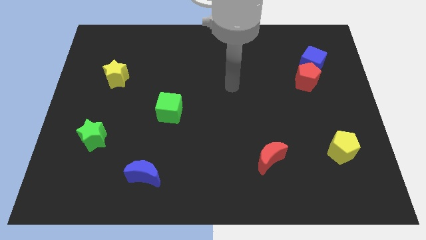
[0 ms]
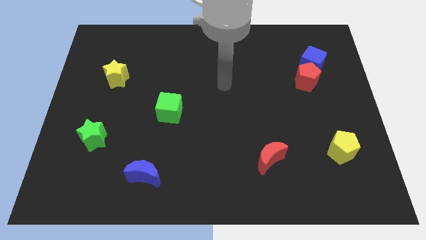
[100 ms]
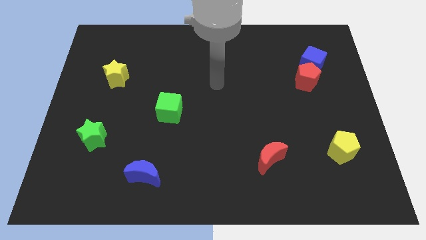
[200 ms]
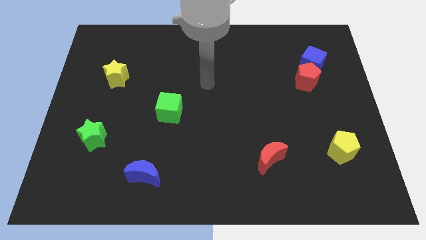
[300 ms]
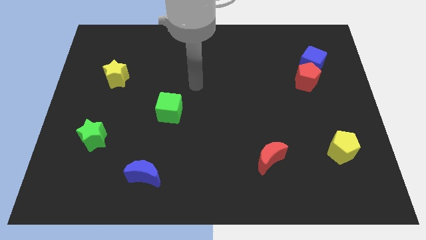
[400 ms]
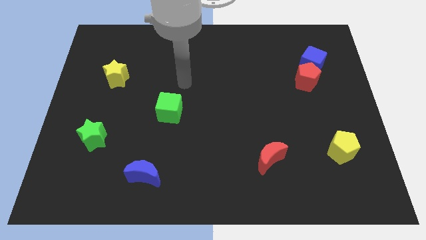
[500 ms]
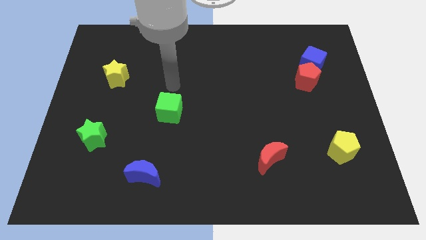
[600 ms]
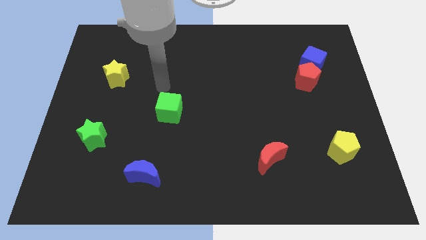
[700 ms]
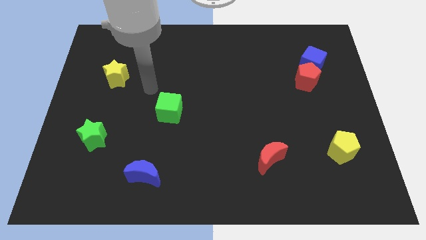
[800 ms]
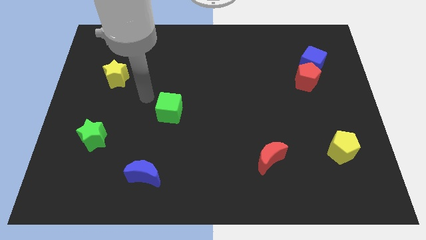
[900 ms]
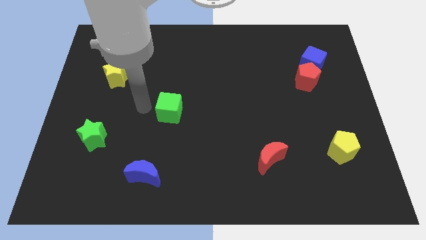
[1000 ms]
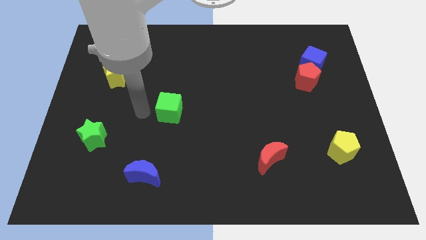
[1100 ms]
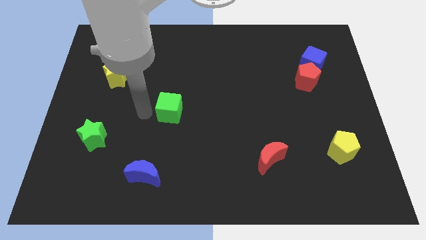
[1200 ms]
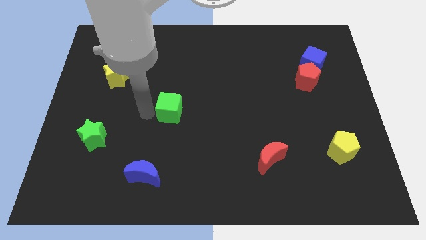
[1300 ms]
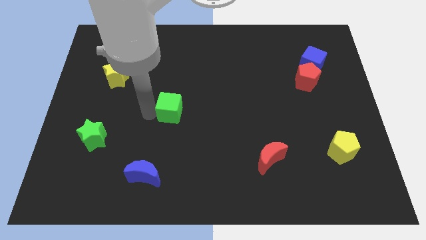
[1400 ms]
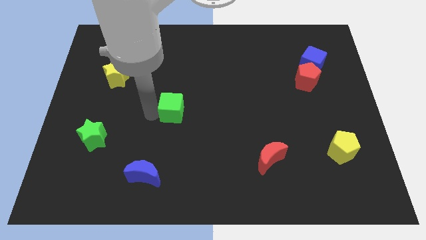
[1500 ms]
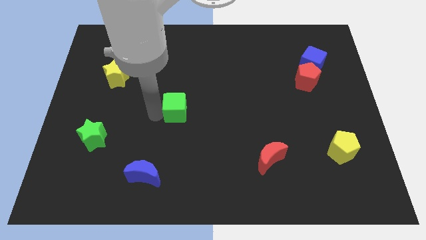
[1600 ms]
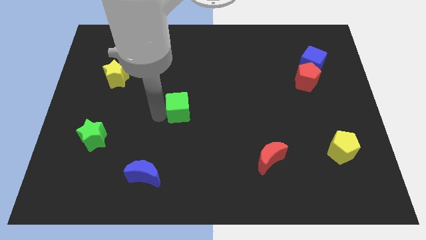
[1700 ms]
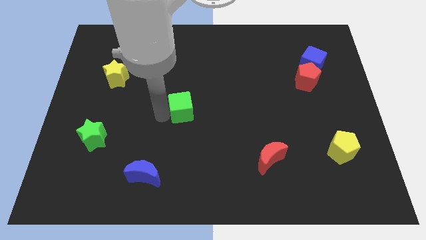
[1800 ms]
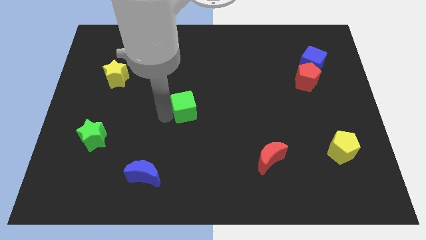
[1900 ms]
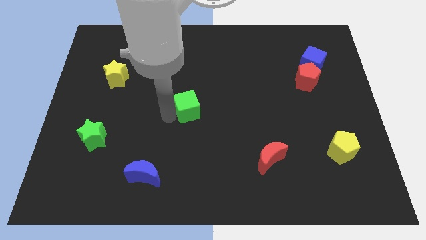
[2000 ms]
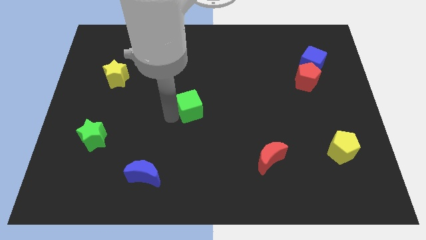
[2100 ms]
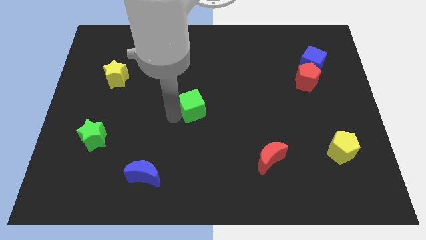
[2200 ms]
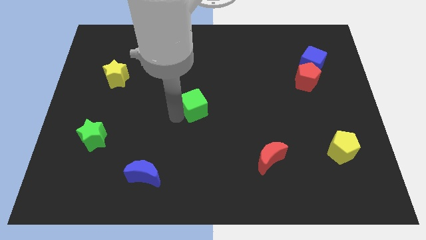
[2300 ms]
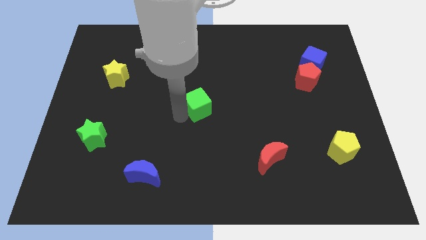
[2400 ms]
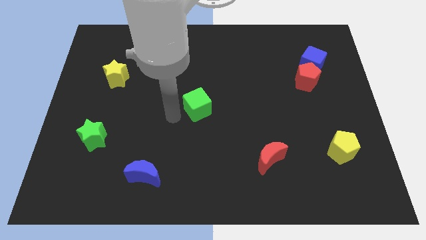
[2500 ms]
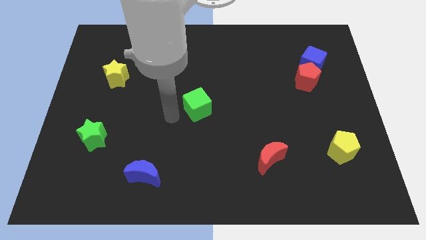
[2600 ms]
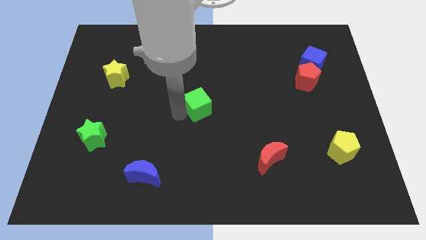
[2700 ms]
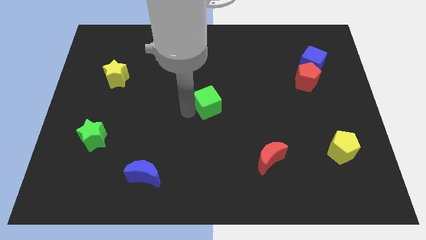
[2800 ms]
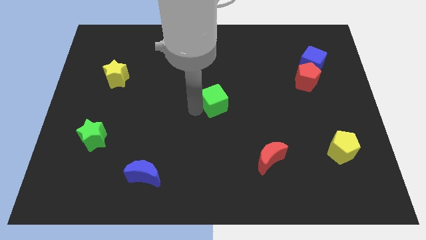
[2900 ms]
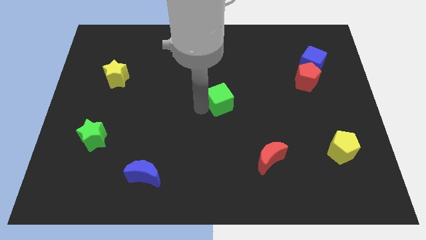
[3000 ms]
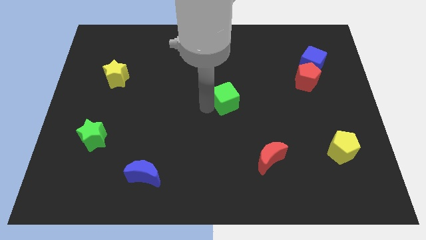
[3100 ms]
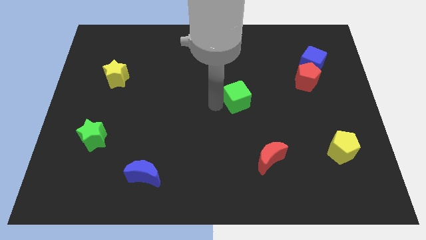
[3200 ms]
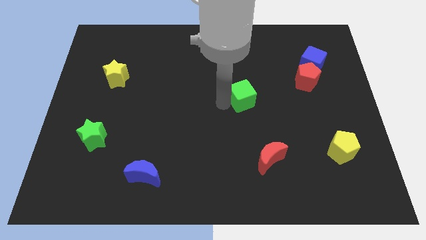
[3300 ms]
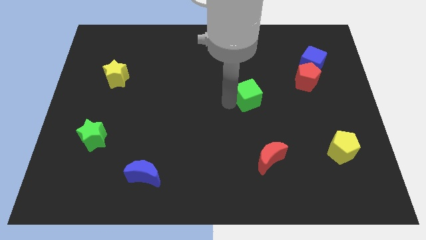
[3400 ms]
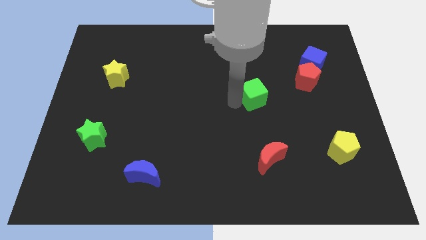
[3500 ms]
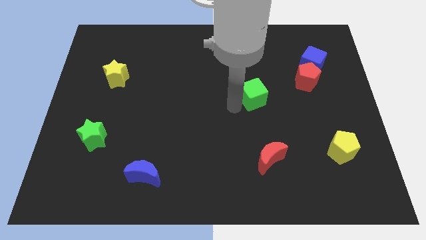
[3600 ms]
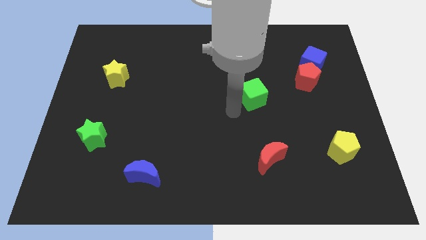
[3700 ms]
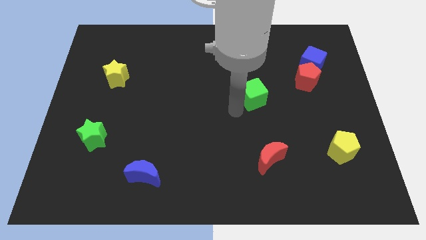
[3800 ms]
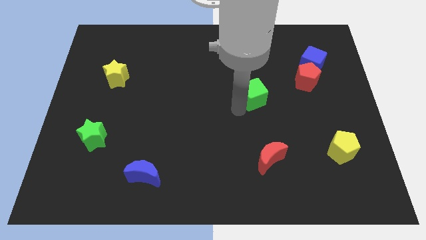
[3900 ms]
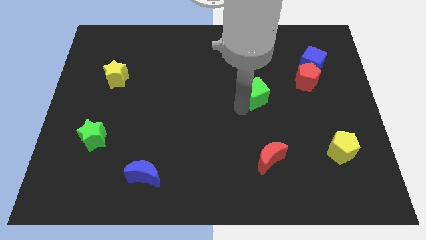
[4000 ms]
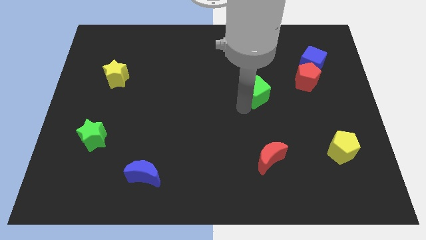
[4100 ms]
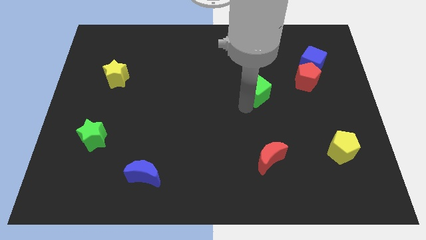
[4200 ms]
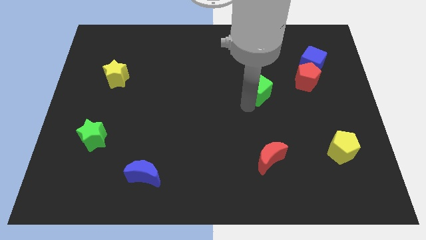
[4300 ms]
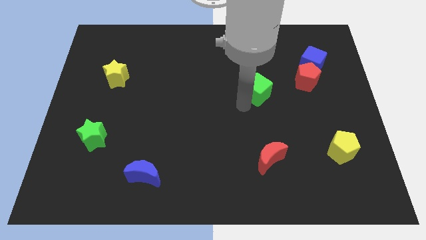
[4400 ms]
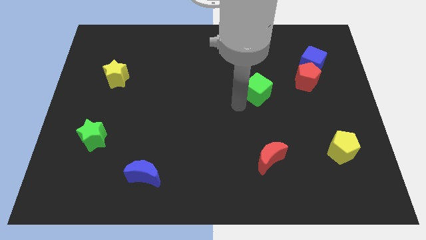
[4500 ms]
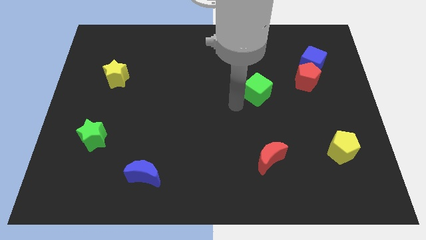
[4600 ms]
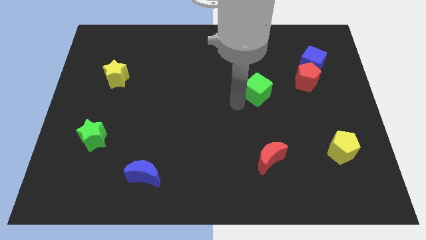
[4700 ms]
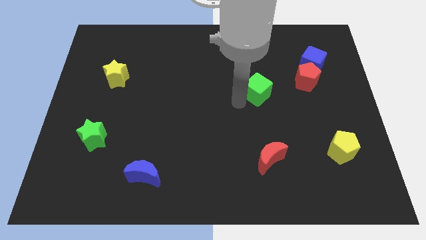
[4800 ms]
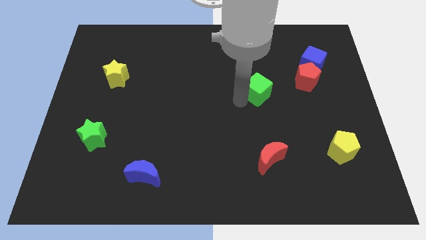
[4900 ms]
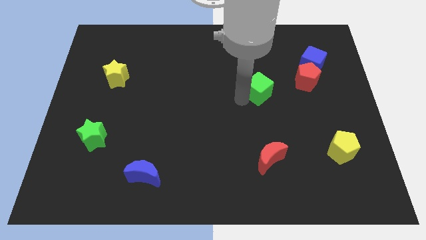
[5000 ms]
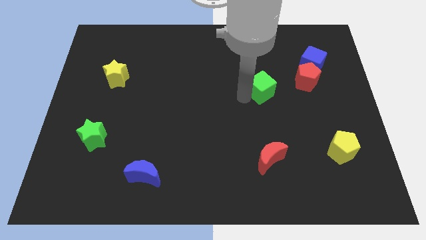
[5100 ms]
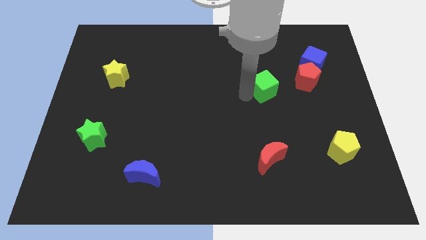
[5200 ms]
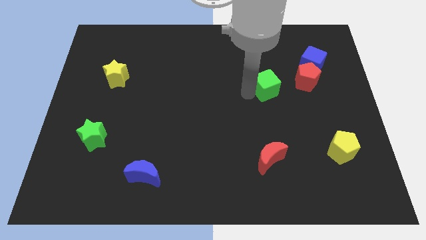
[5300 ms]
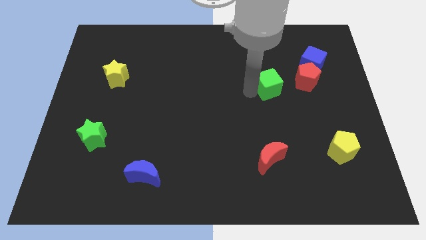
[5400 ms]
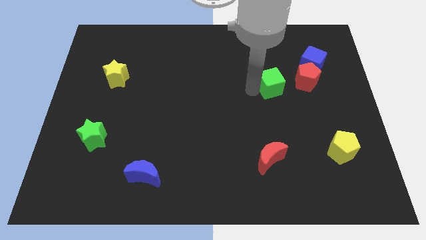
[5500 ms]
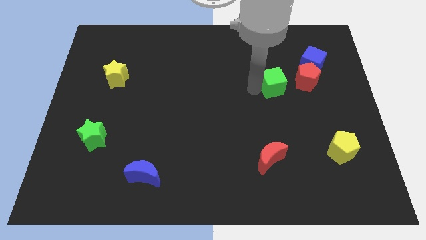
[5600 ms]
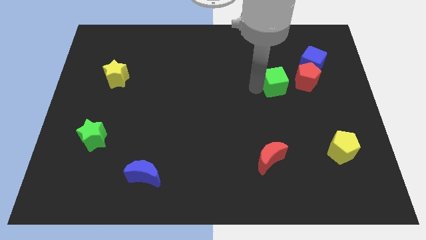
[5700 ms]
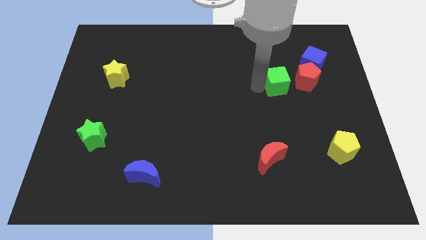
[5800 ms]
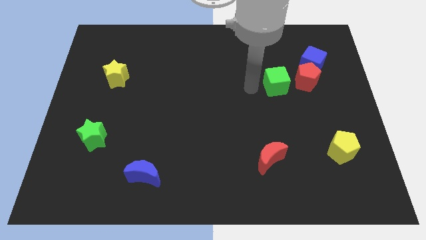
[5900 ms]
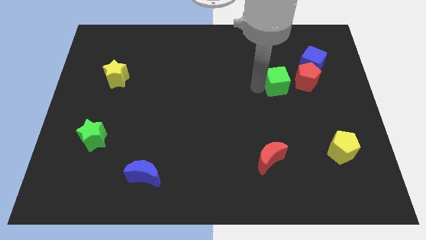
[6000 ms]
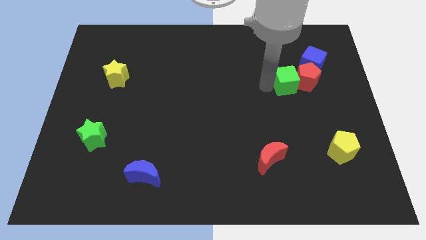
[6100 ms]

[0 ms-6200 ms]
put the green cube close to the red pentagon

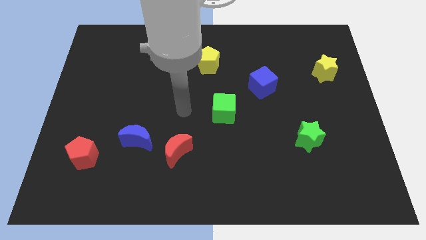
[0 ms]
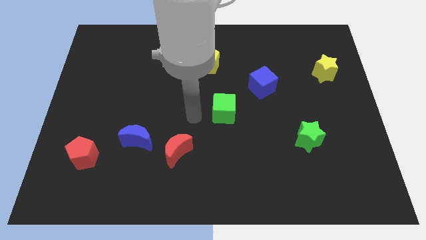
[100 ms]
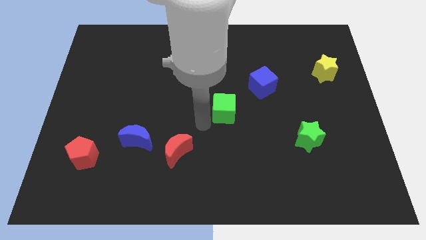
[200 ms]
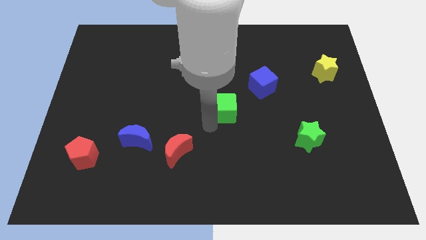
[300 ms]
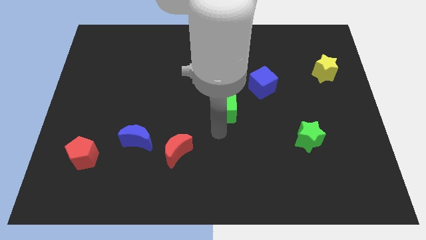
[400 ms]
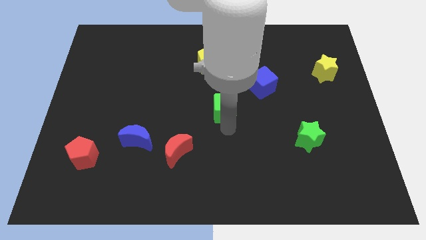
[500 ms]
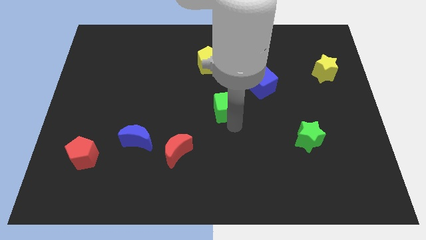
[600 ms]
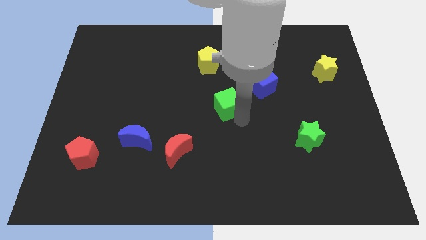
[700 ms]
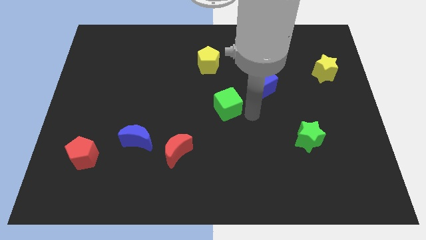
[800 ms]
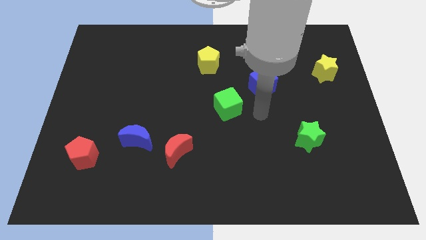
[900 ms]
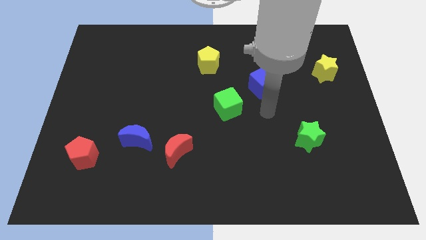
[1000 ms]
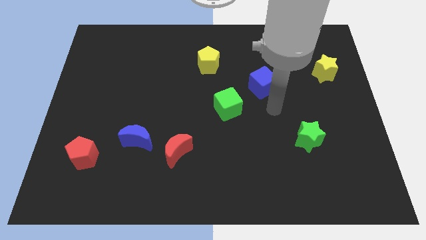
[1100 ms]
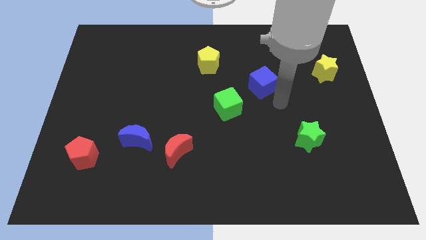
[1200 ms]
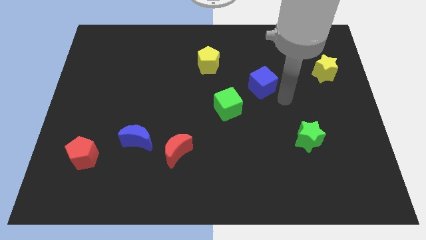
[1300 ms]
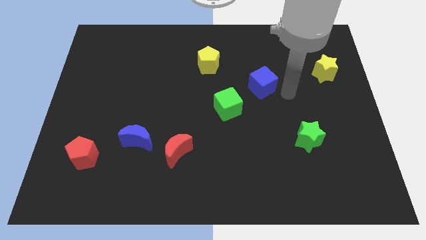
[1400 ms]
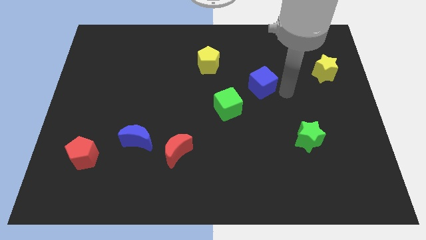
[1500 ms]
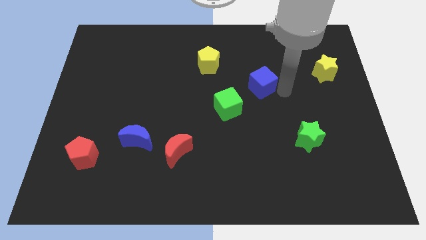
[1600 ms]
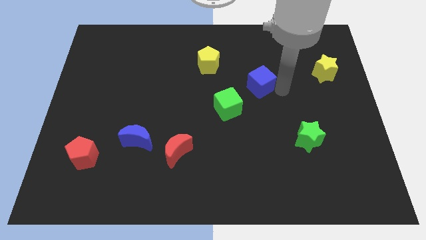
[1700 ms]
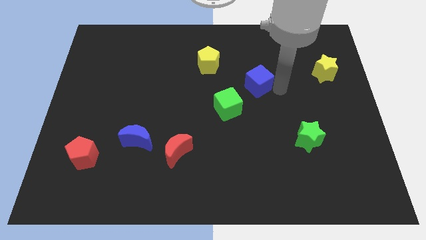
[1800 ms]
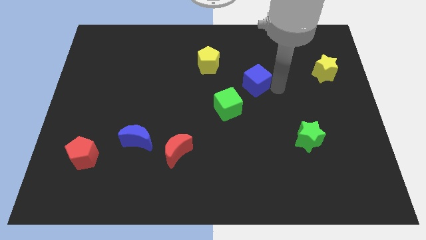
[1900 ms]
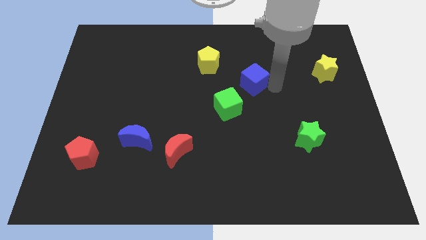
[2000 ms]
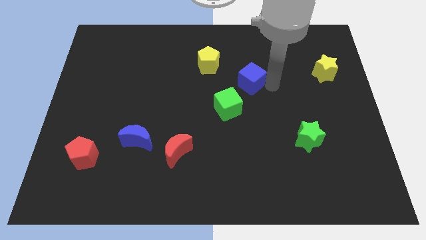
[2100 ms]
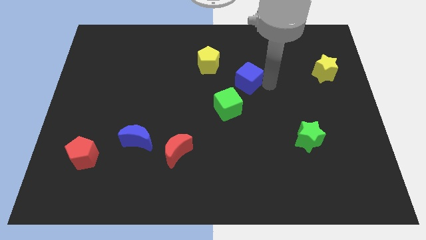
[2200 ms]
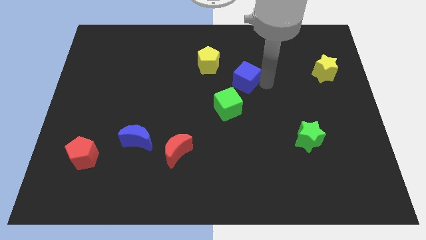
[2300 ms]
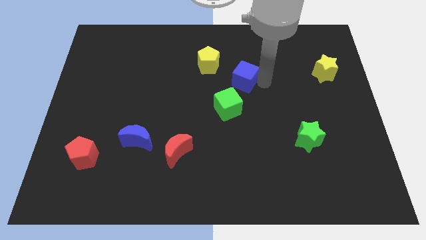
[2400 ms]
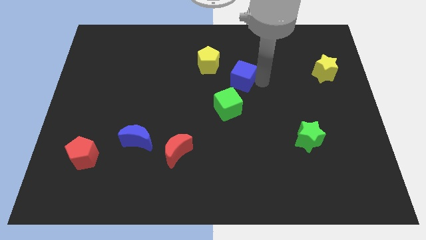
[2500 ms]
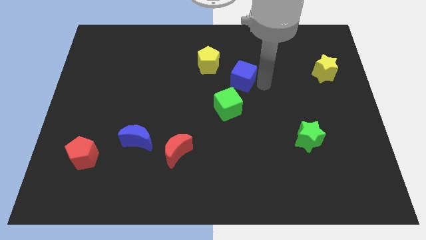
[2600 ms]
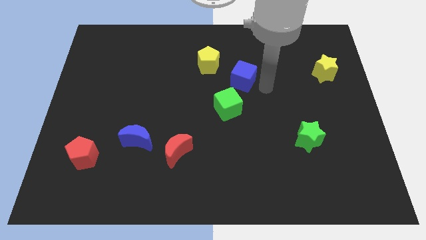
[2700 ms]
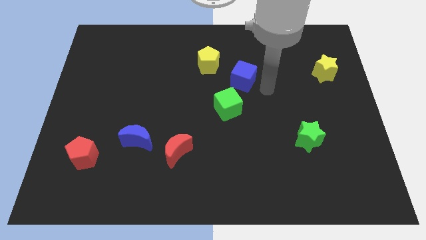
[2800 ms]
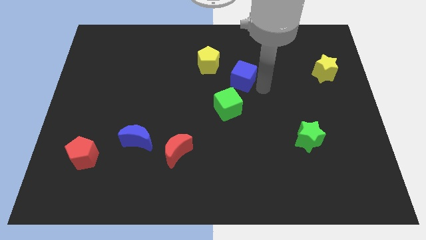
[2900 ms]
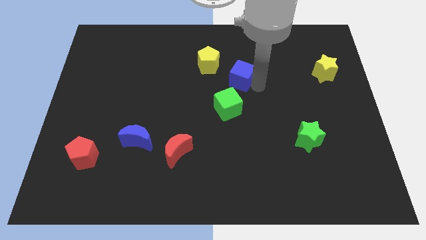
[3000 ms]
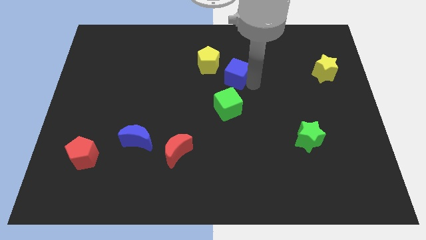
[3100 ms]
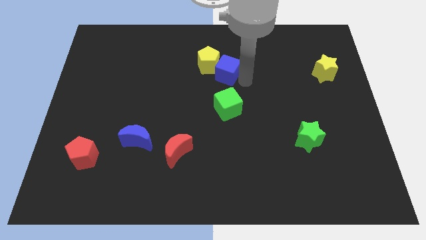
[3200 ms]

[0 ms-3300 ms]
push the blue cube to the yellow pentagon
